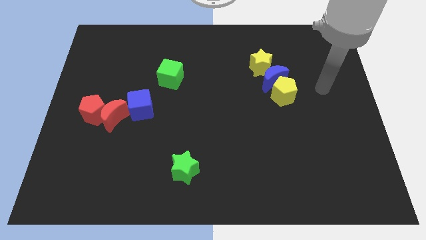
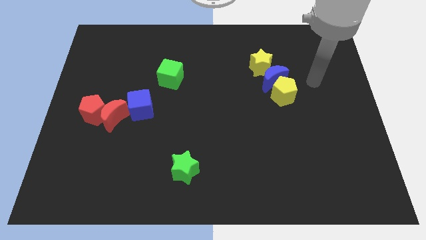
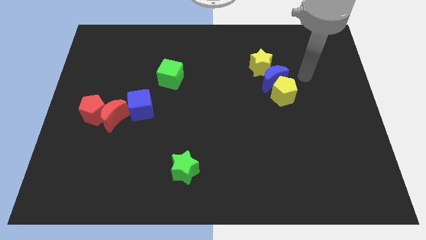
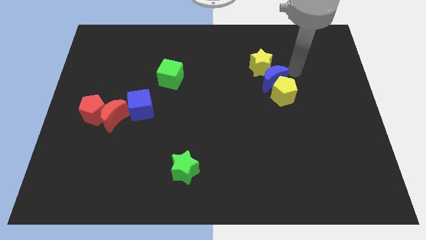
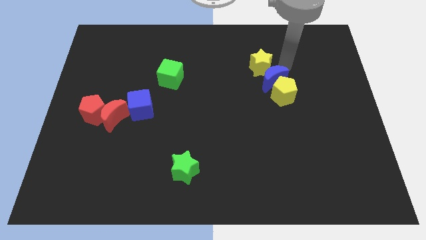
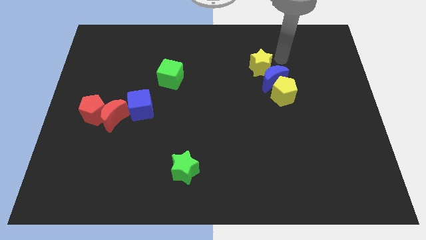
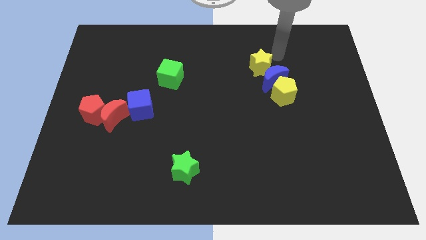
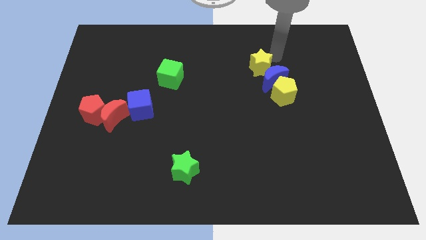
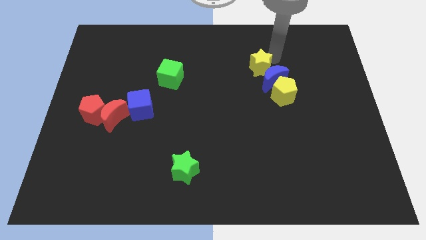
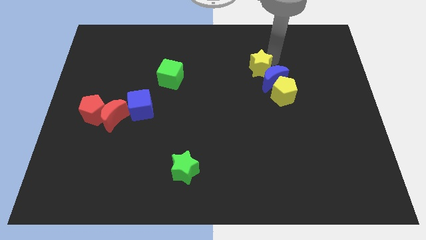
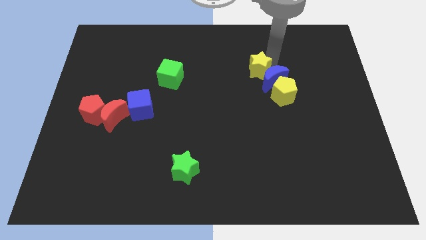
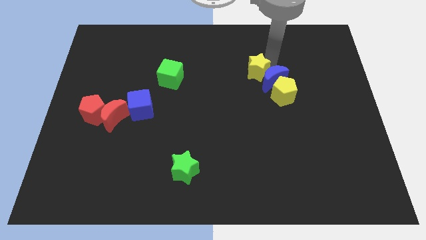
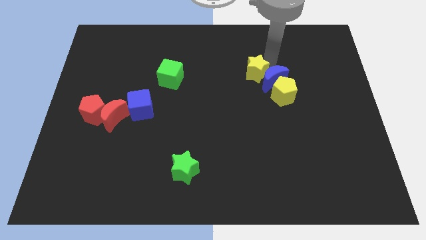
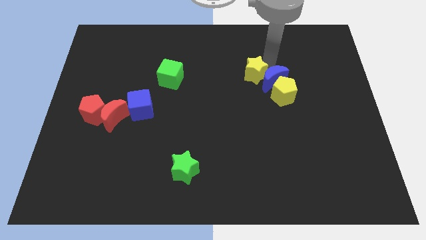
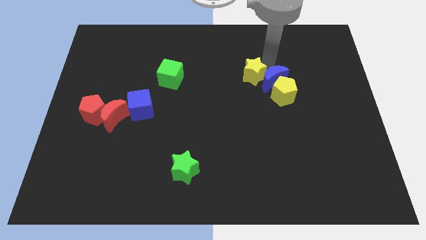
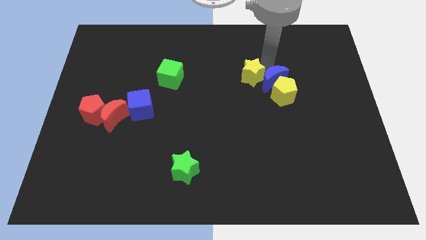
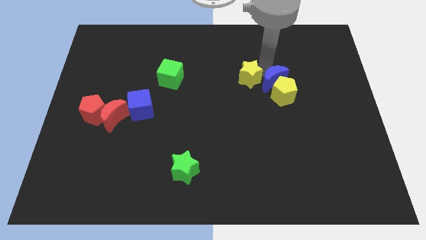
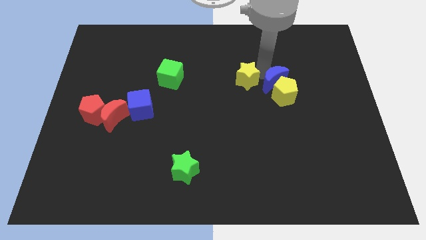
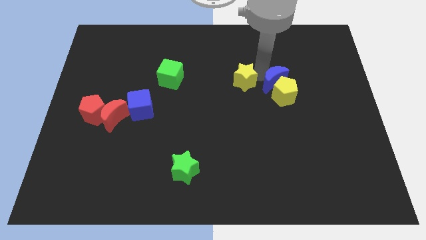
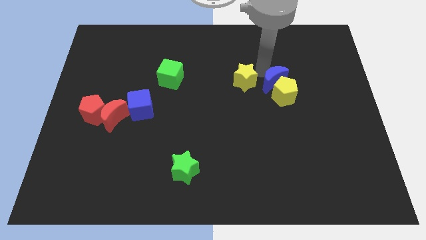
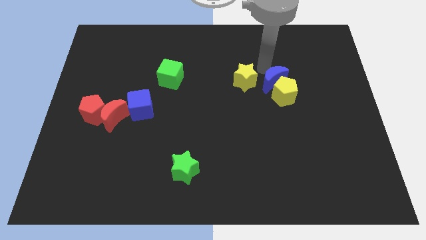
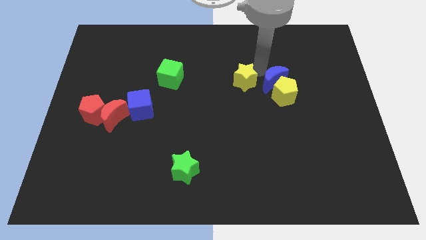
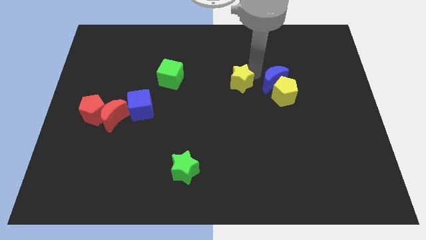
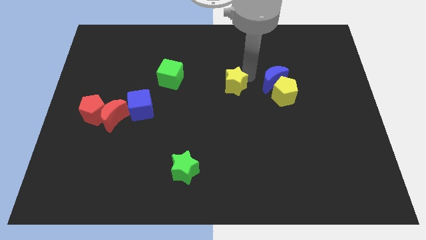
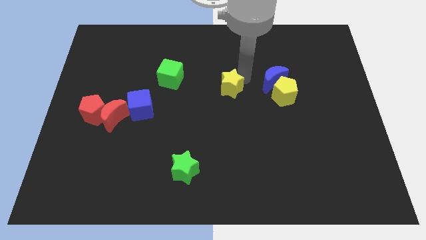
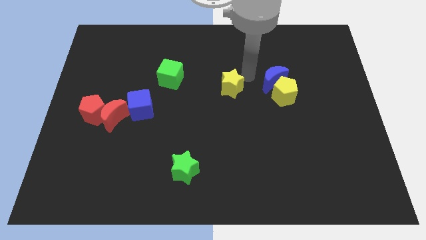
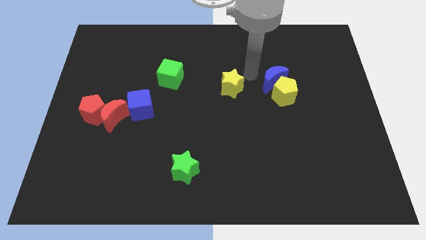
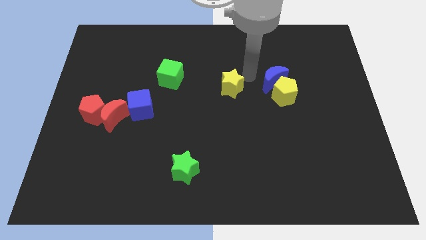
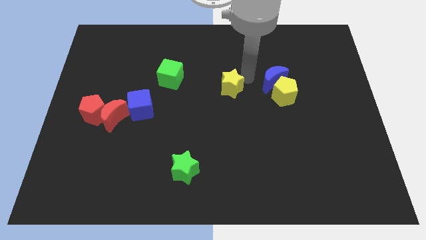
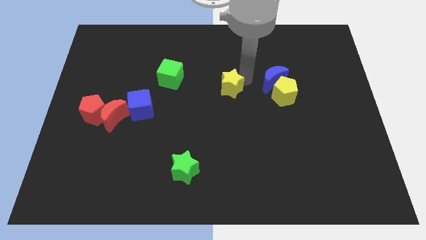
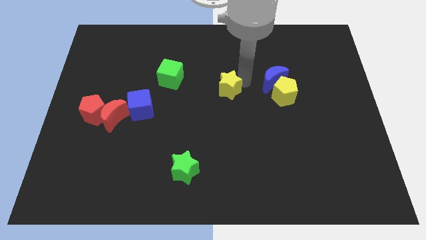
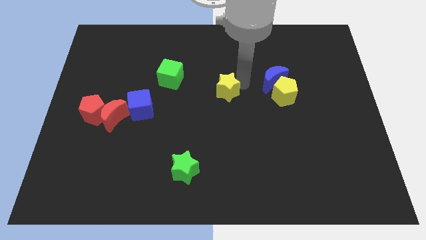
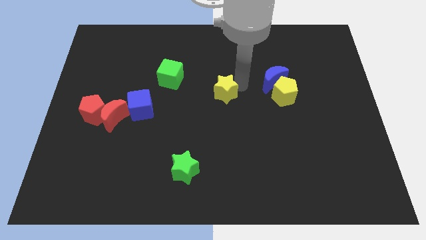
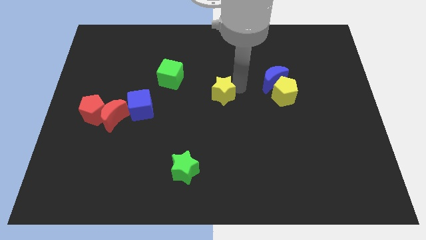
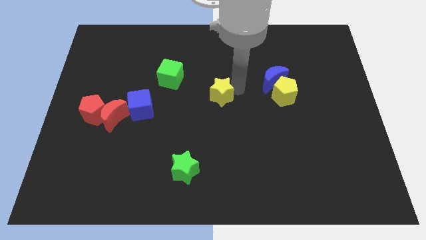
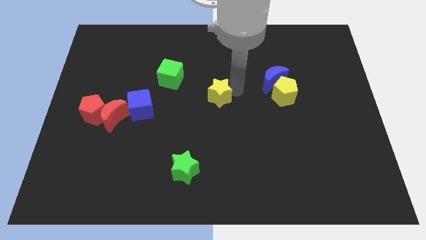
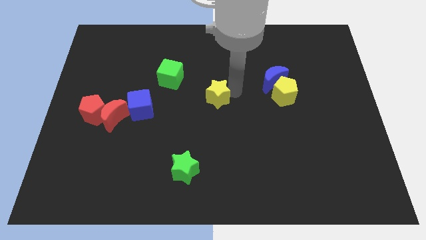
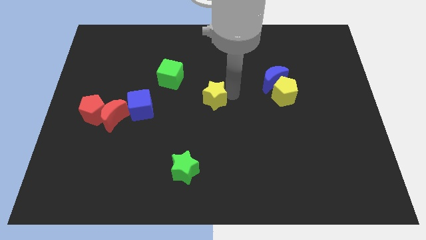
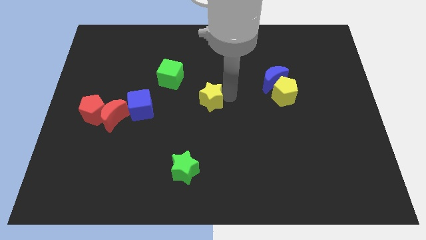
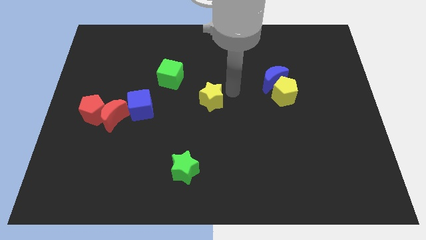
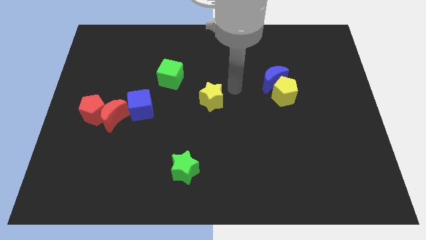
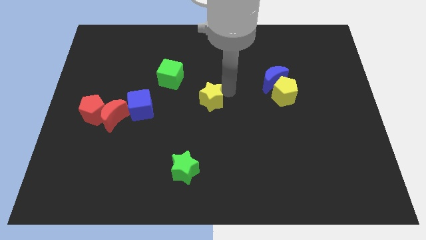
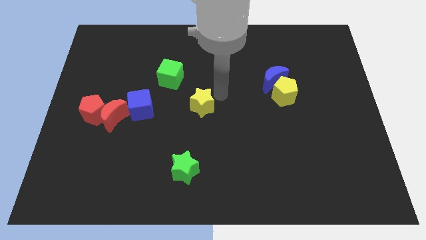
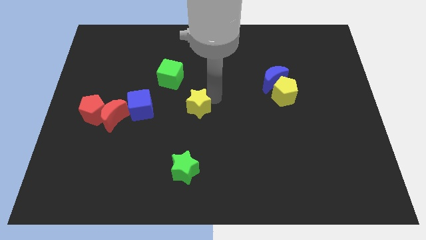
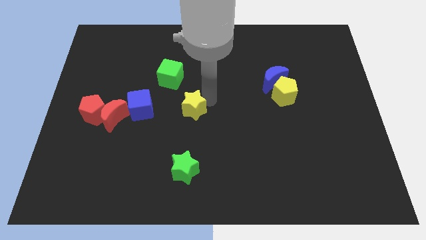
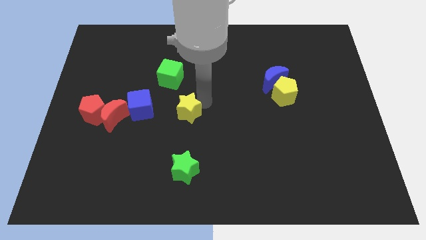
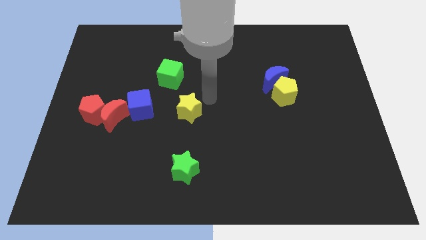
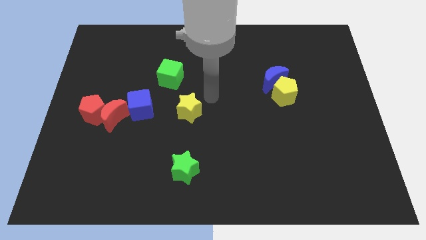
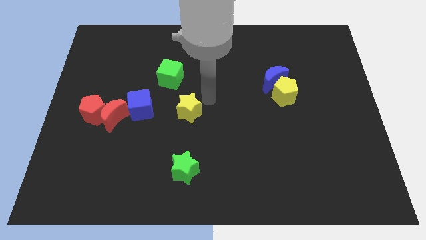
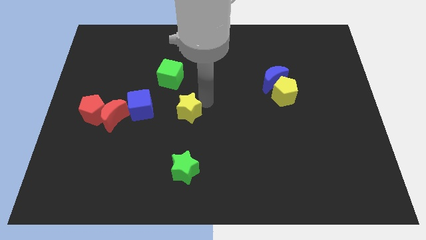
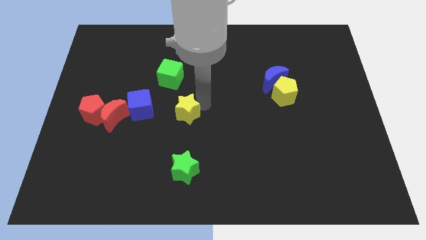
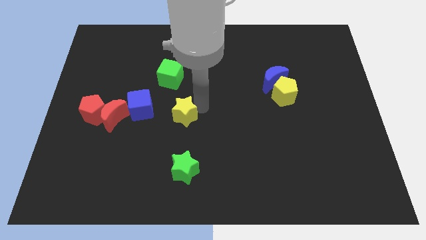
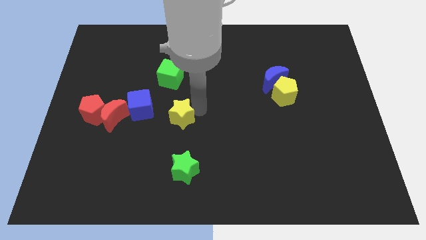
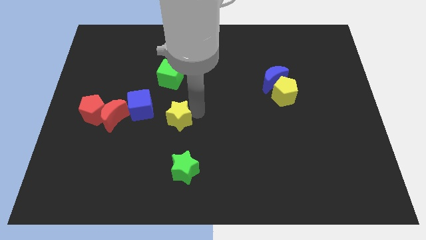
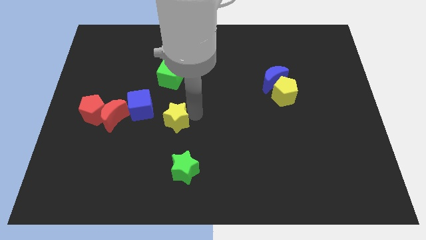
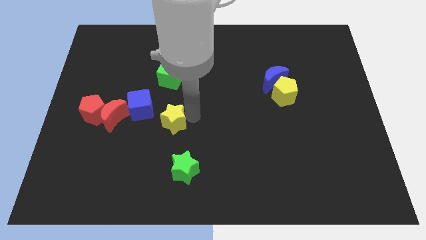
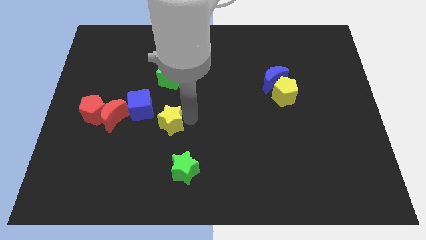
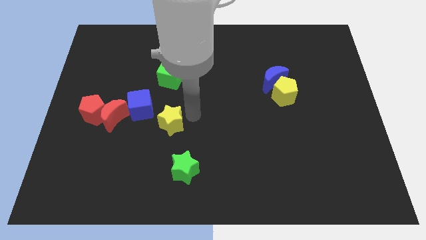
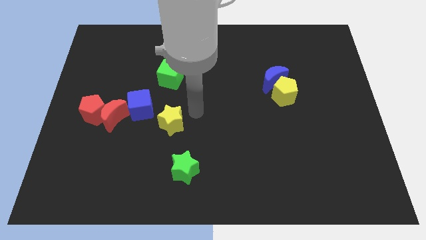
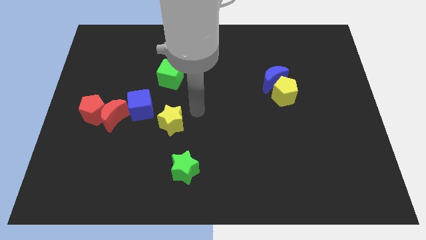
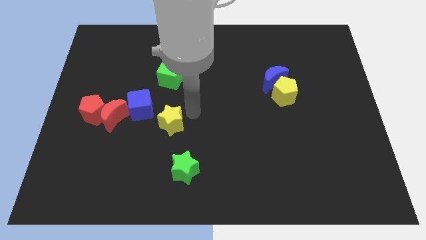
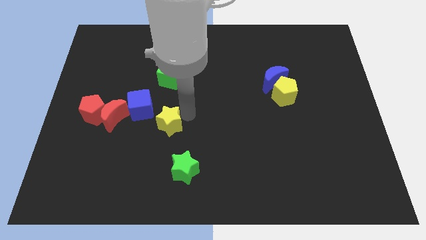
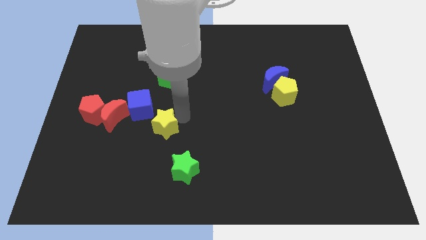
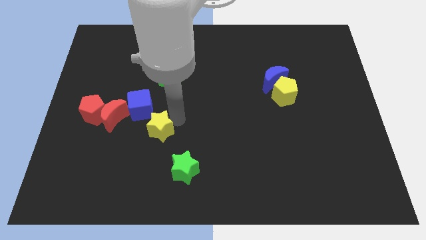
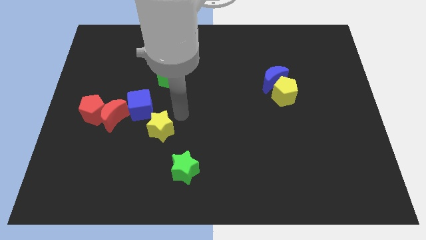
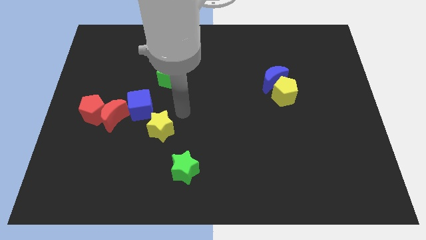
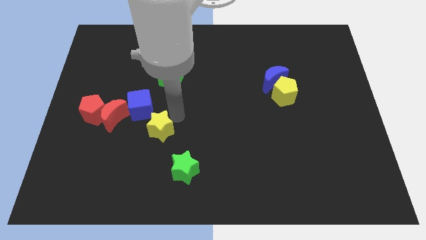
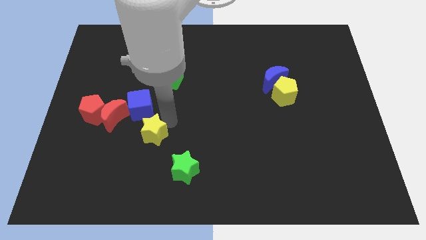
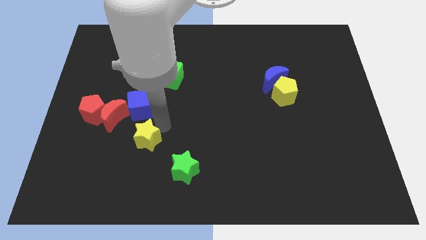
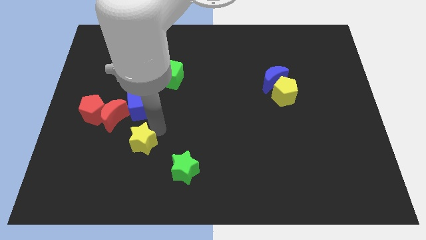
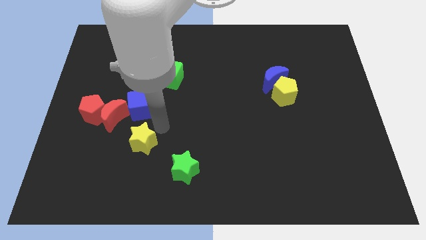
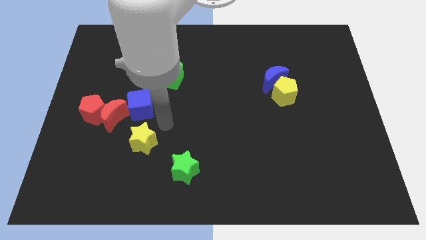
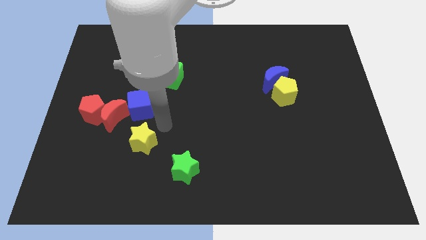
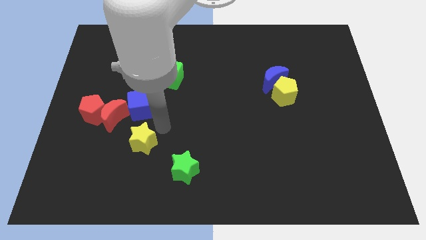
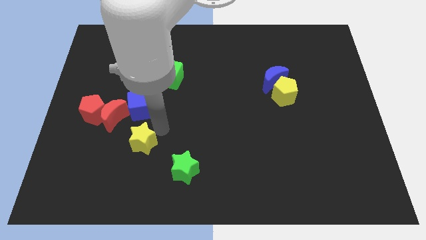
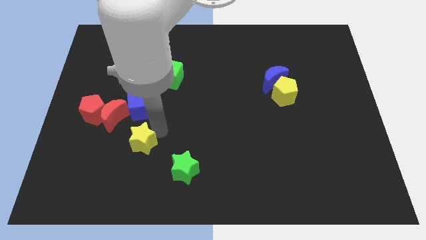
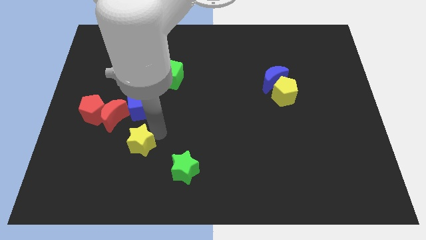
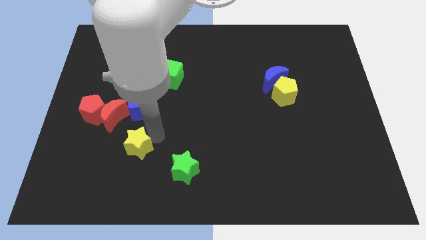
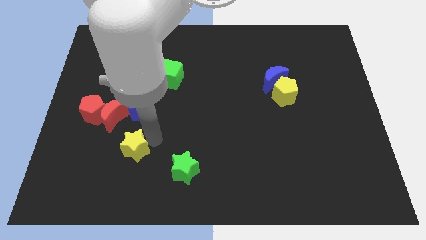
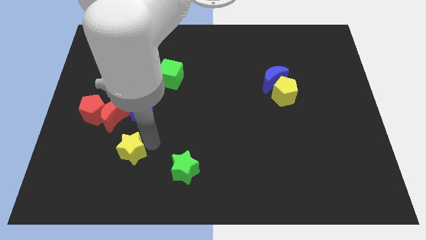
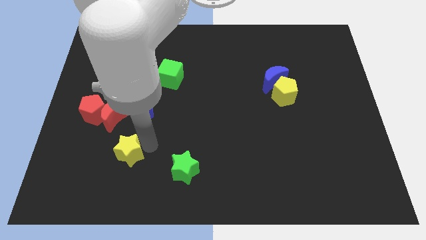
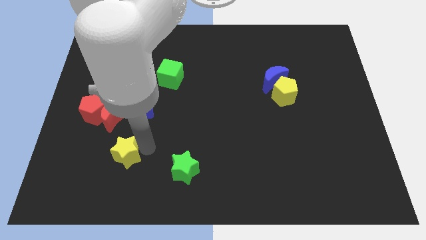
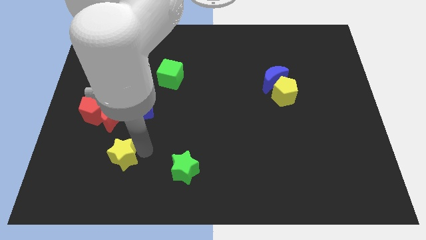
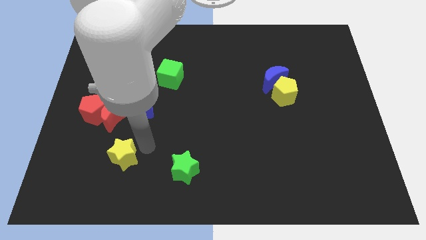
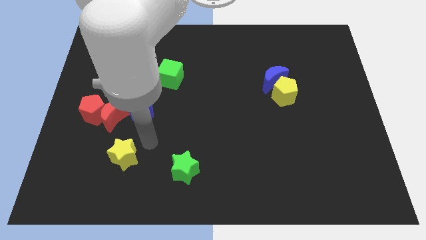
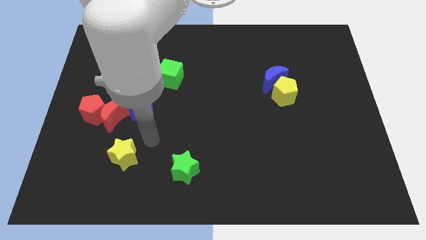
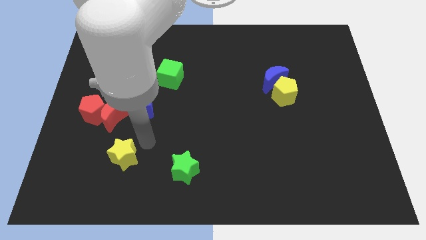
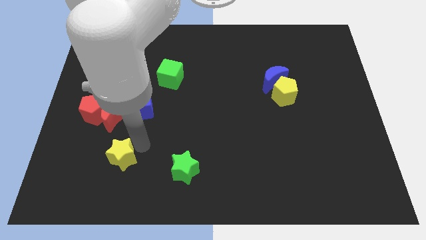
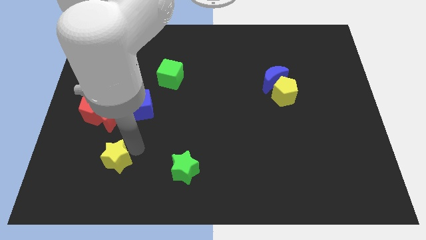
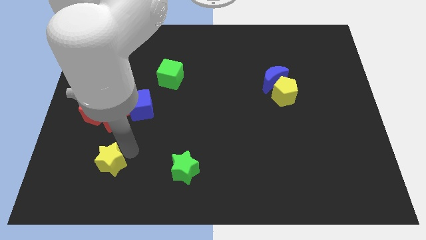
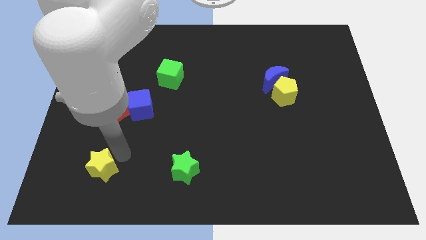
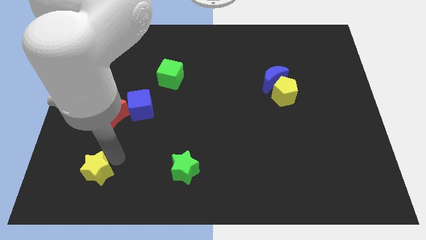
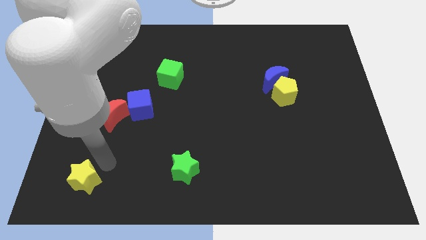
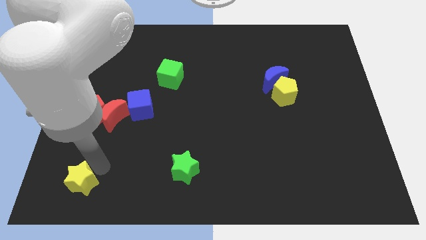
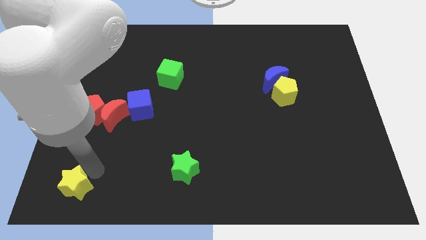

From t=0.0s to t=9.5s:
move the yellow star to the bottom left
